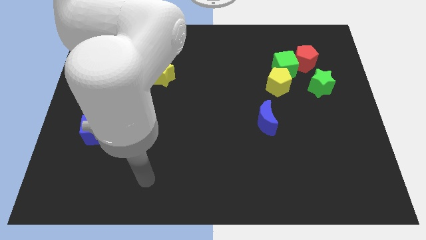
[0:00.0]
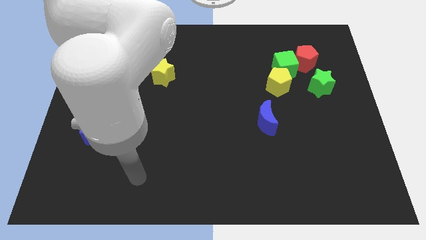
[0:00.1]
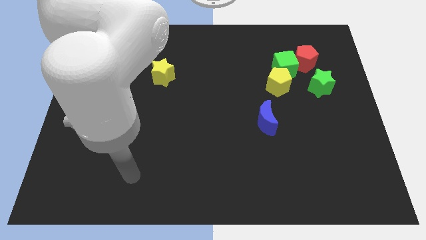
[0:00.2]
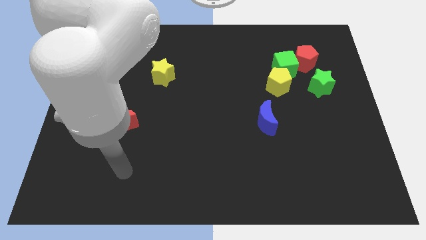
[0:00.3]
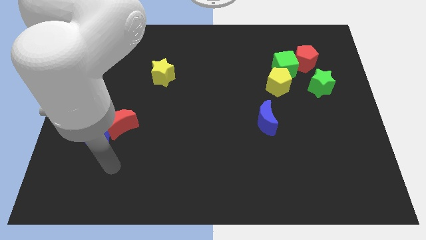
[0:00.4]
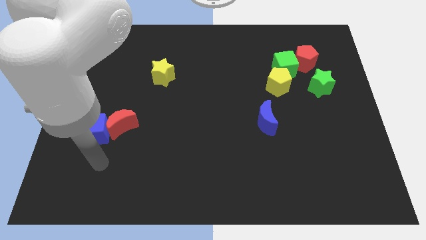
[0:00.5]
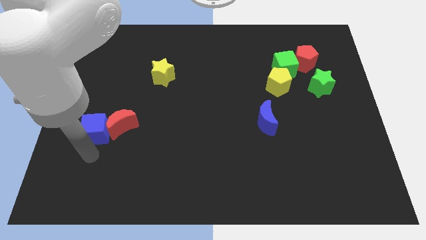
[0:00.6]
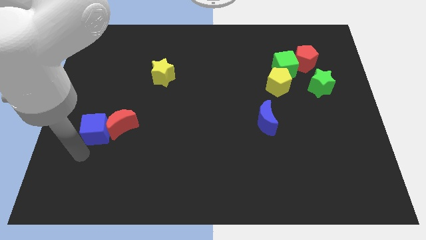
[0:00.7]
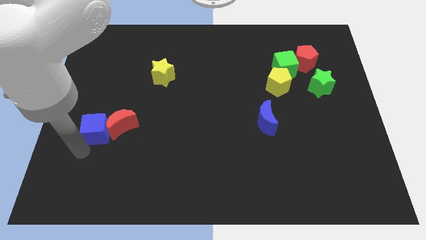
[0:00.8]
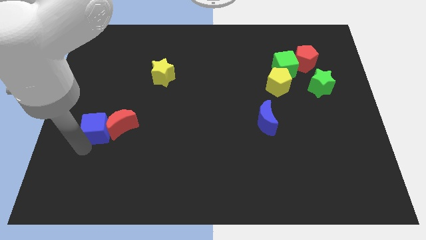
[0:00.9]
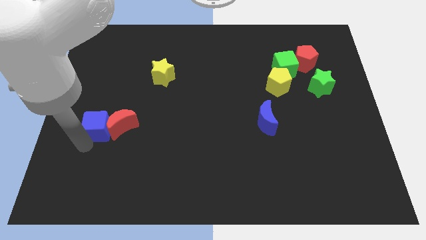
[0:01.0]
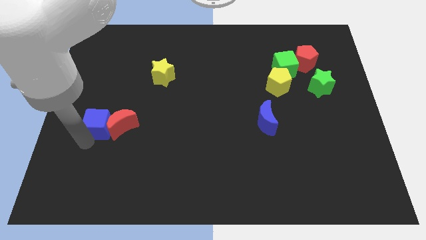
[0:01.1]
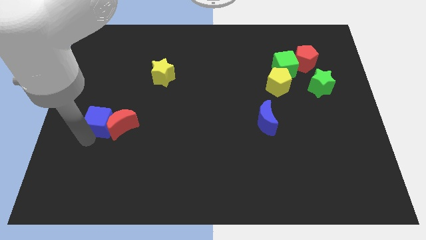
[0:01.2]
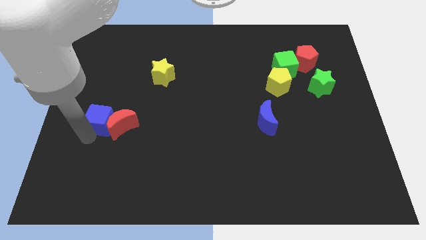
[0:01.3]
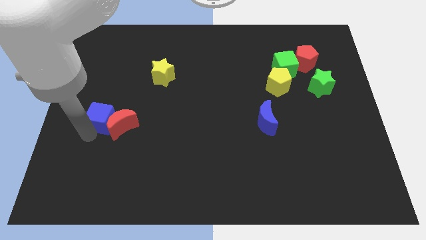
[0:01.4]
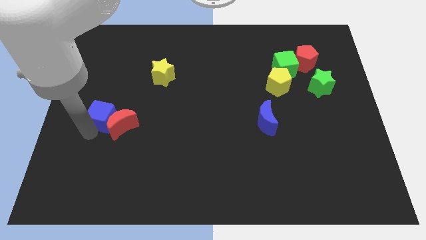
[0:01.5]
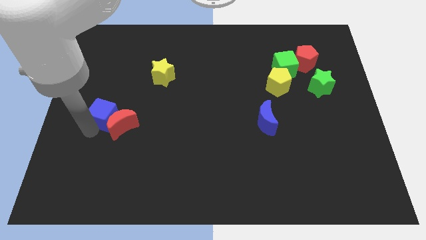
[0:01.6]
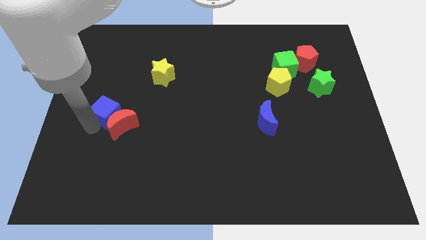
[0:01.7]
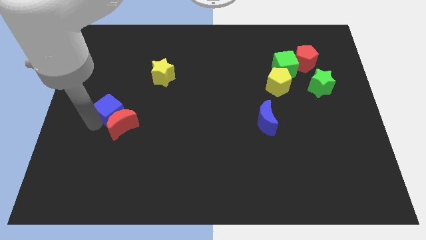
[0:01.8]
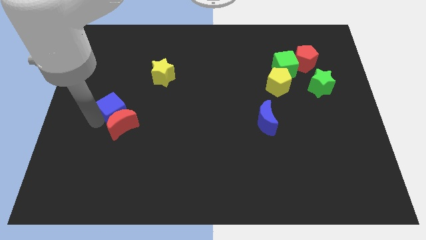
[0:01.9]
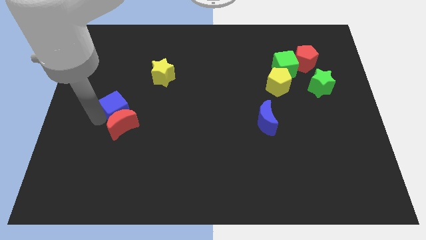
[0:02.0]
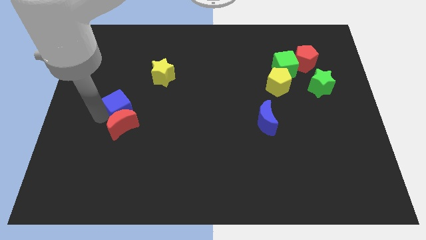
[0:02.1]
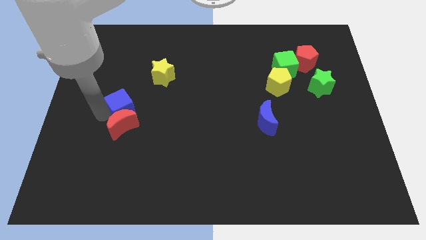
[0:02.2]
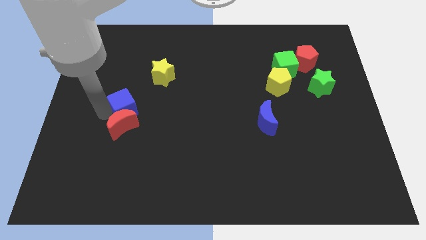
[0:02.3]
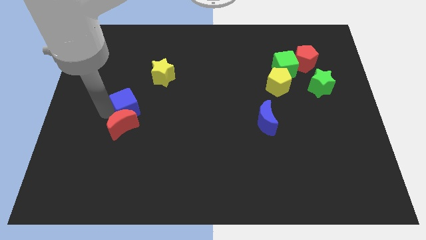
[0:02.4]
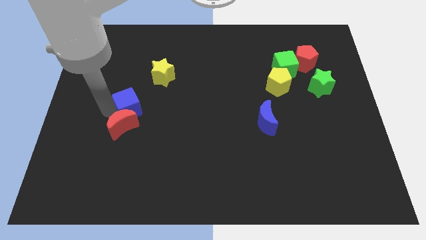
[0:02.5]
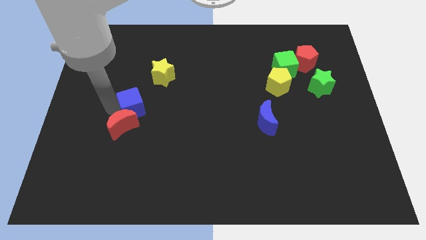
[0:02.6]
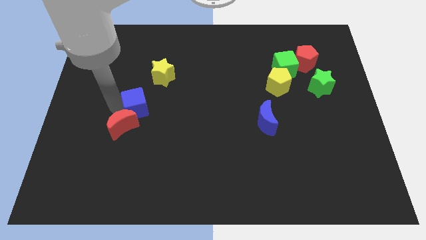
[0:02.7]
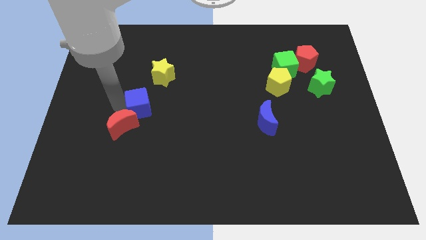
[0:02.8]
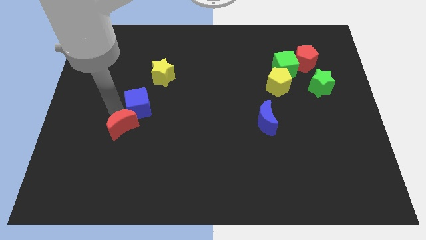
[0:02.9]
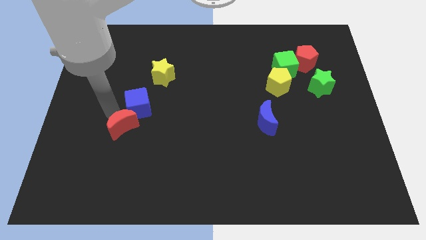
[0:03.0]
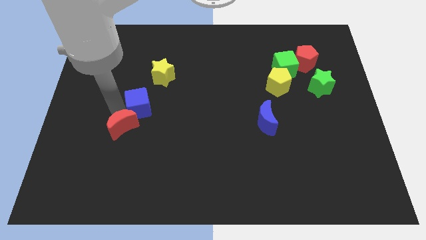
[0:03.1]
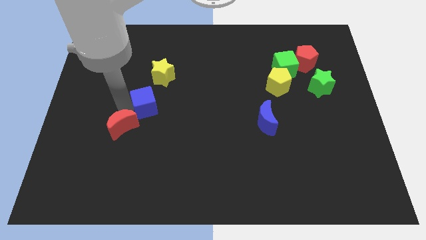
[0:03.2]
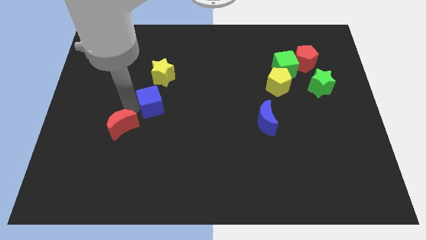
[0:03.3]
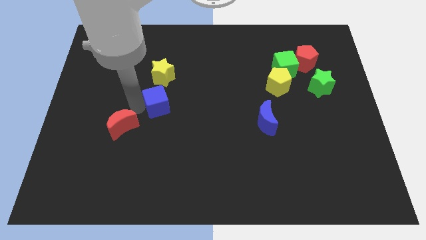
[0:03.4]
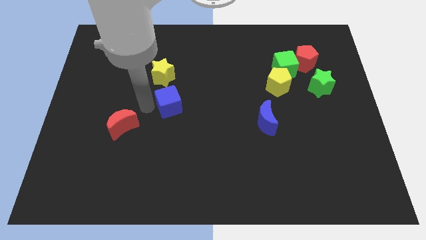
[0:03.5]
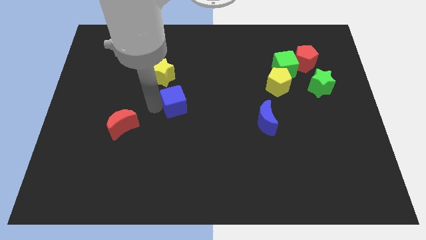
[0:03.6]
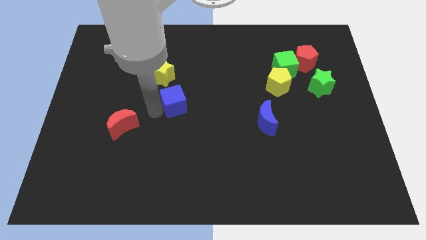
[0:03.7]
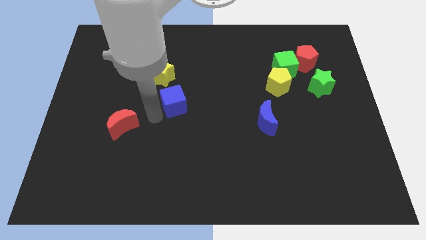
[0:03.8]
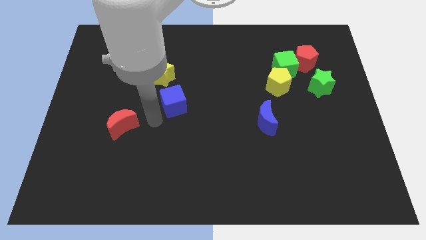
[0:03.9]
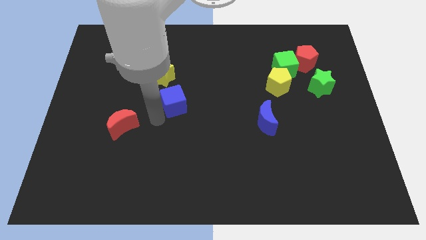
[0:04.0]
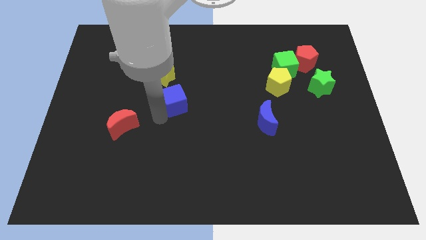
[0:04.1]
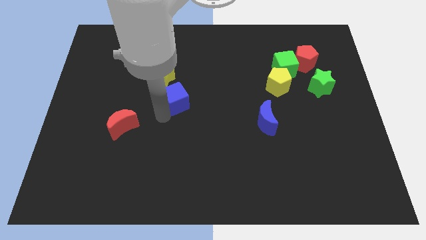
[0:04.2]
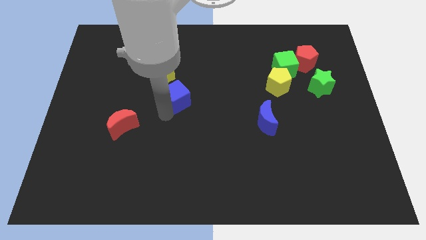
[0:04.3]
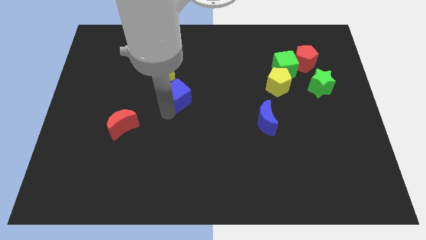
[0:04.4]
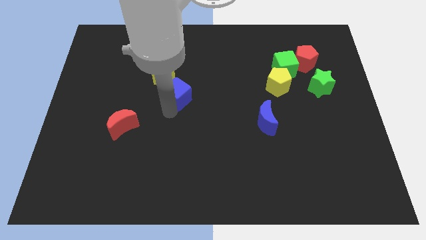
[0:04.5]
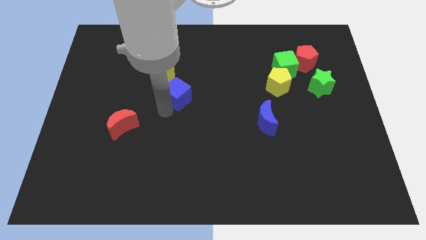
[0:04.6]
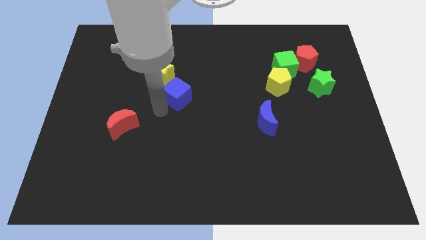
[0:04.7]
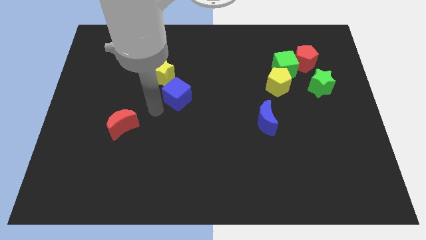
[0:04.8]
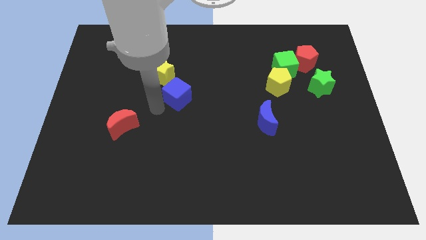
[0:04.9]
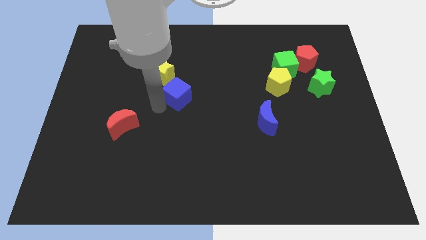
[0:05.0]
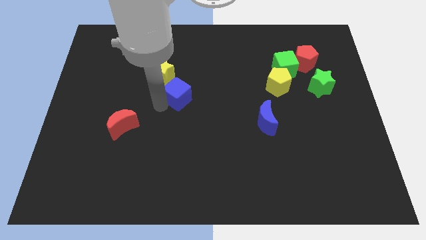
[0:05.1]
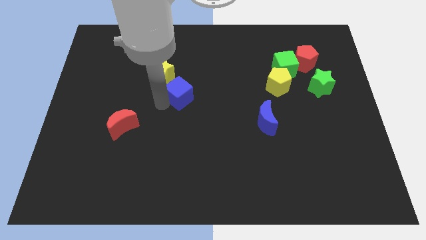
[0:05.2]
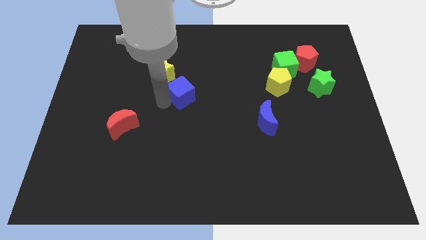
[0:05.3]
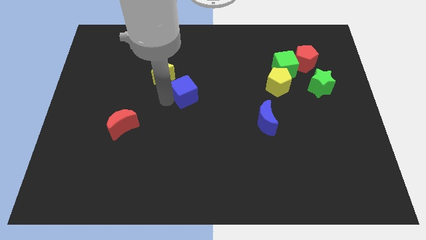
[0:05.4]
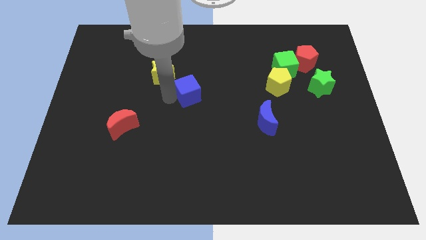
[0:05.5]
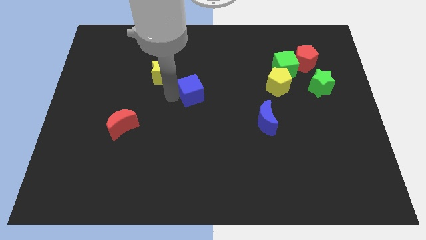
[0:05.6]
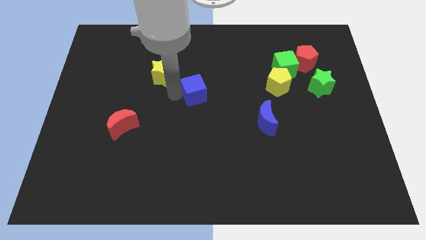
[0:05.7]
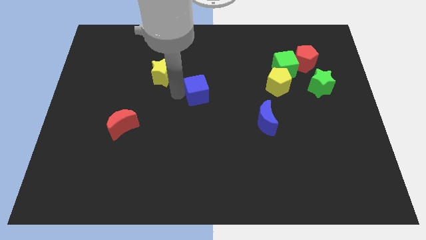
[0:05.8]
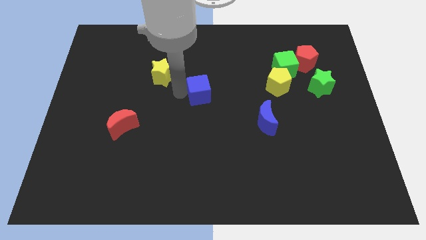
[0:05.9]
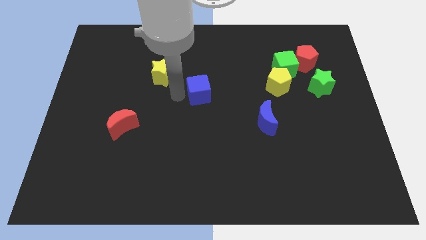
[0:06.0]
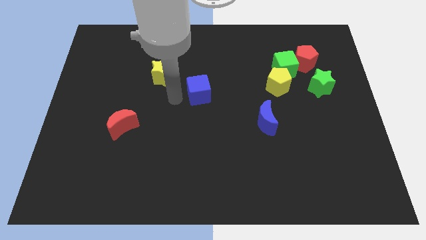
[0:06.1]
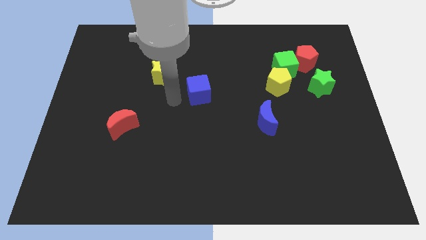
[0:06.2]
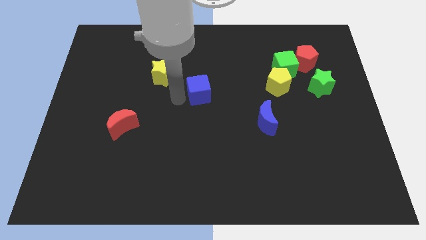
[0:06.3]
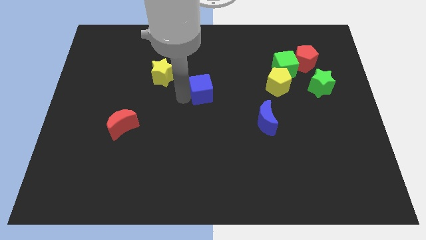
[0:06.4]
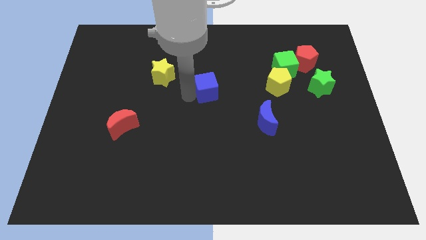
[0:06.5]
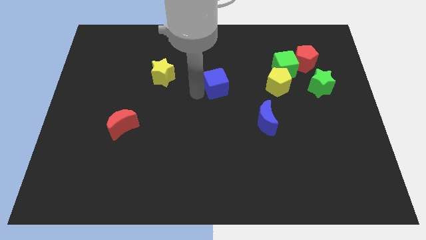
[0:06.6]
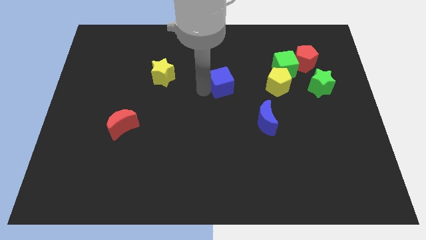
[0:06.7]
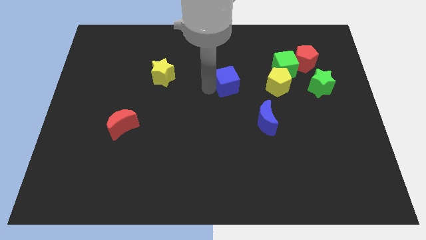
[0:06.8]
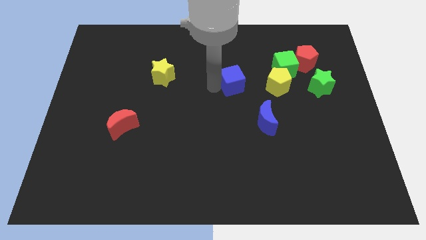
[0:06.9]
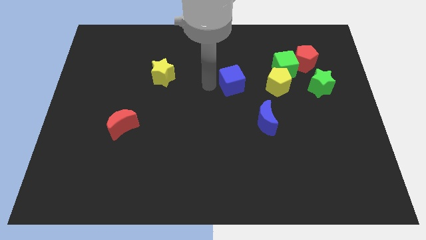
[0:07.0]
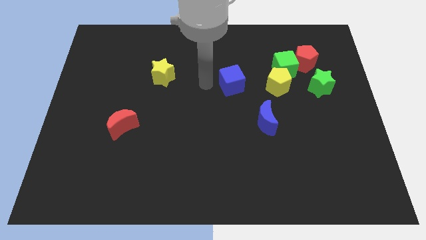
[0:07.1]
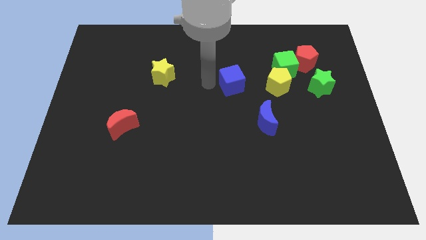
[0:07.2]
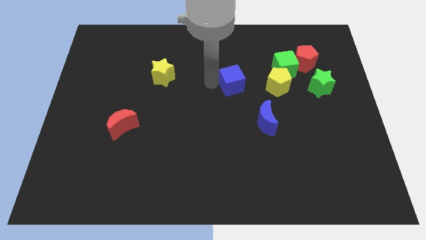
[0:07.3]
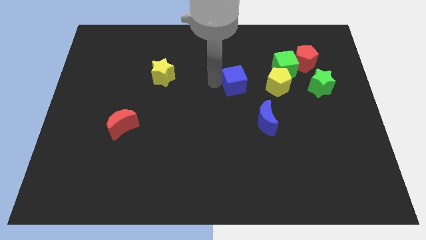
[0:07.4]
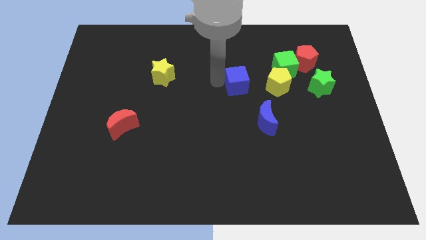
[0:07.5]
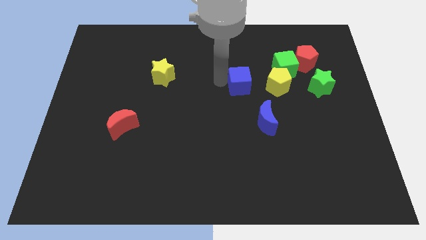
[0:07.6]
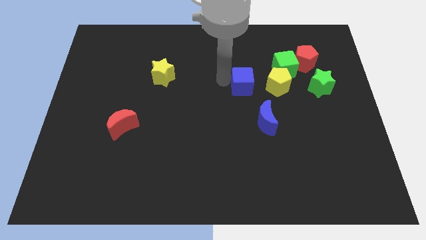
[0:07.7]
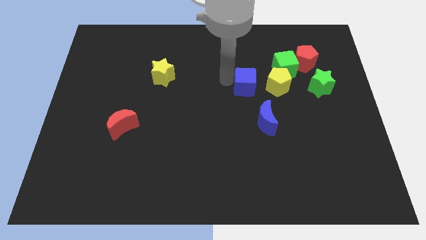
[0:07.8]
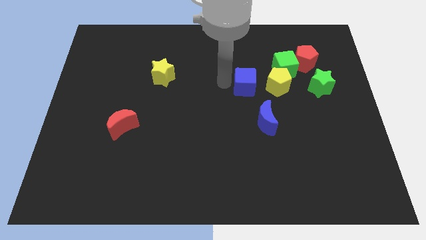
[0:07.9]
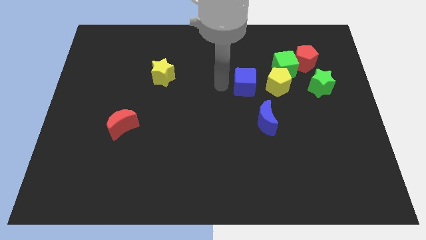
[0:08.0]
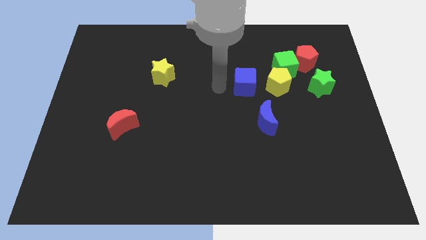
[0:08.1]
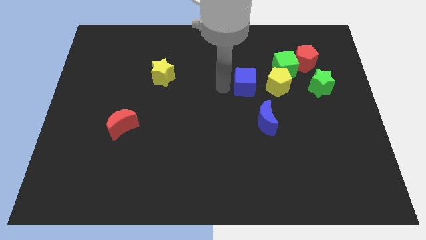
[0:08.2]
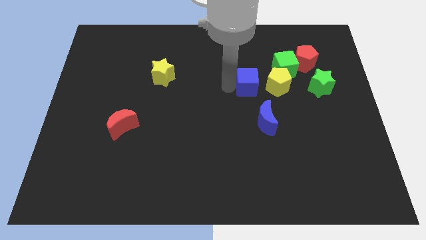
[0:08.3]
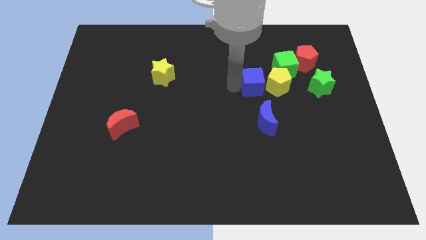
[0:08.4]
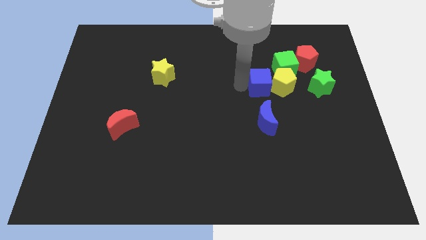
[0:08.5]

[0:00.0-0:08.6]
push the blue cube to the yellow pentagon
